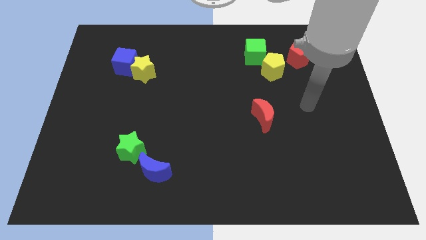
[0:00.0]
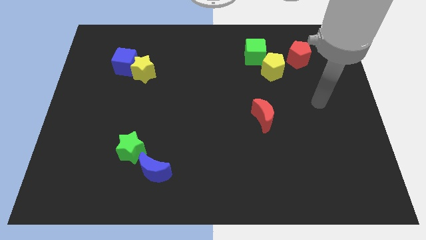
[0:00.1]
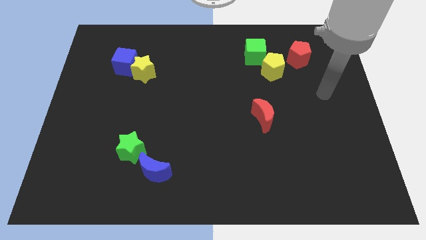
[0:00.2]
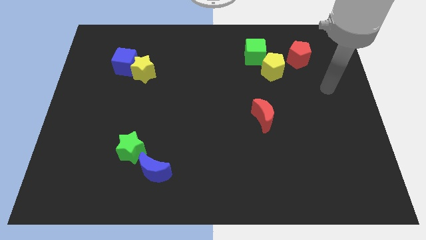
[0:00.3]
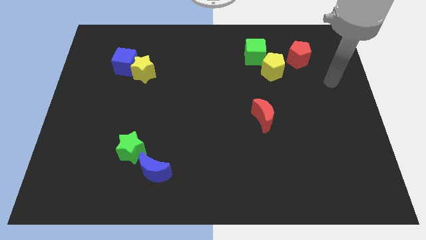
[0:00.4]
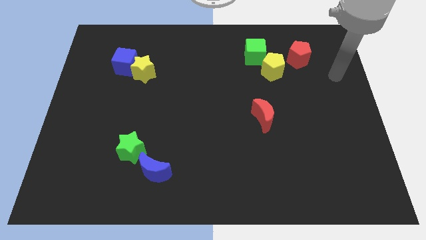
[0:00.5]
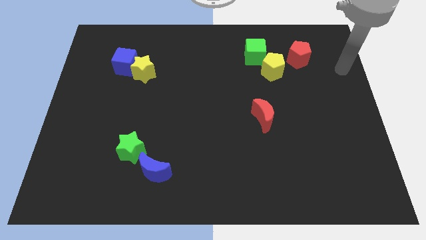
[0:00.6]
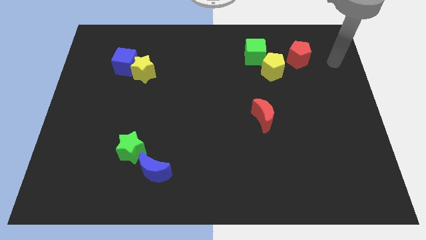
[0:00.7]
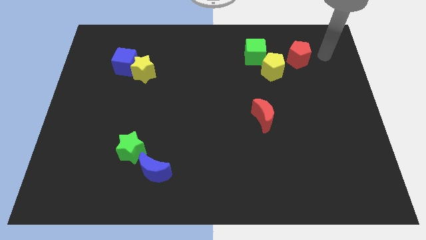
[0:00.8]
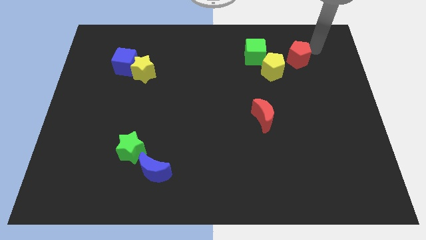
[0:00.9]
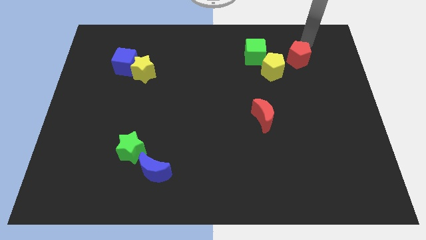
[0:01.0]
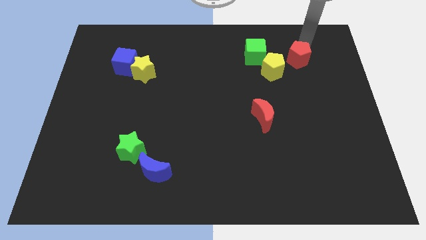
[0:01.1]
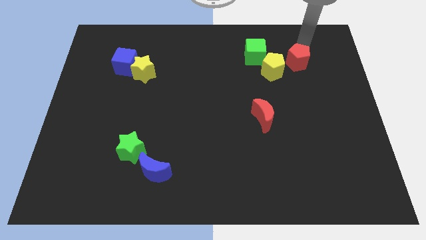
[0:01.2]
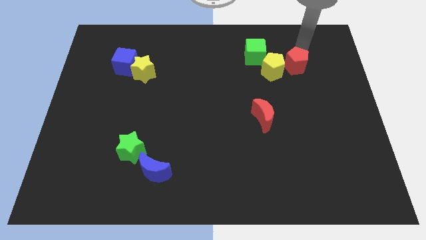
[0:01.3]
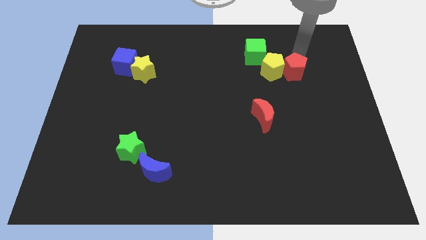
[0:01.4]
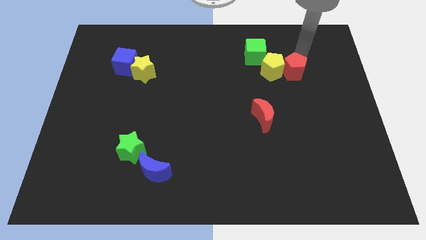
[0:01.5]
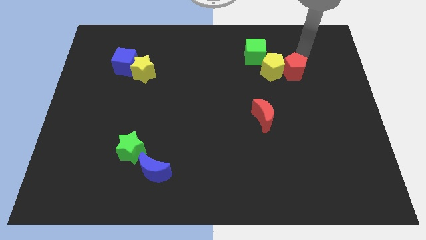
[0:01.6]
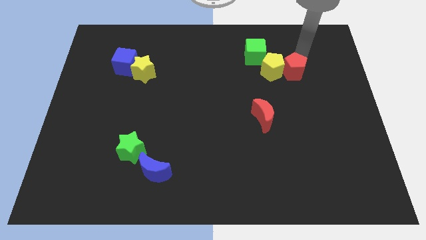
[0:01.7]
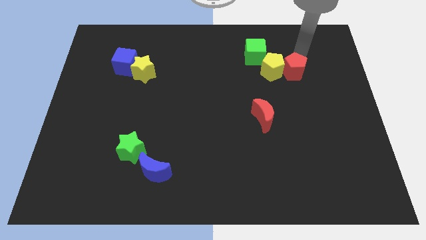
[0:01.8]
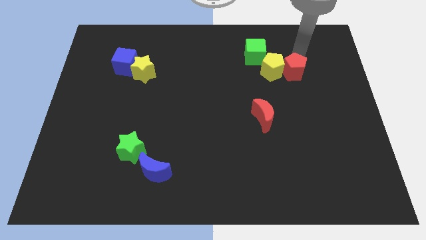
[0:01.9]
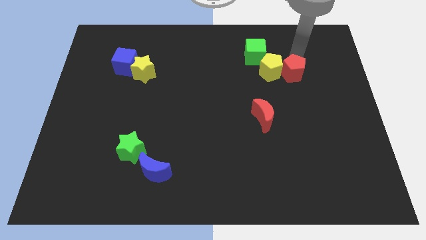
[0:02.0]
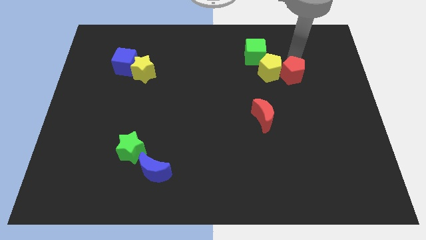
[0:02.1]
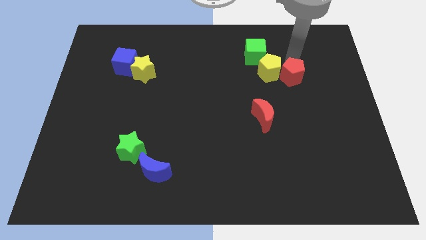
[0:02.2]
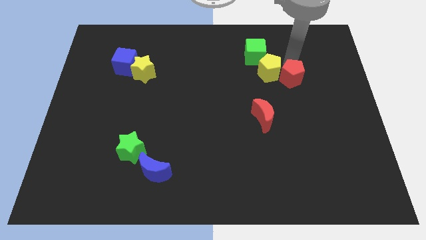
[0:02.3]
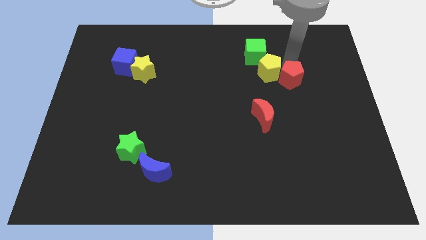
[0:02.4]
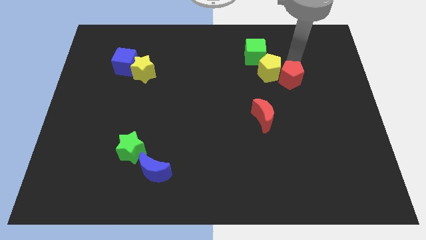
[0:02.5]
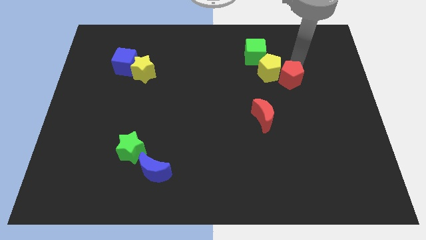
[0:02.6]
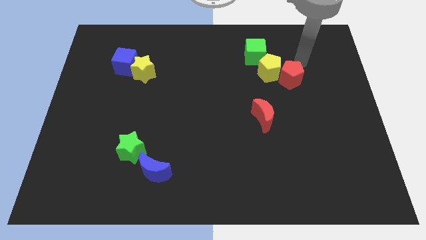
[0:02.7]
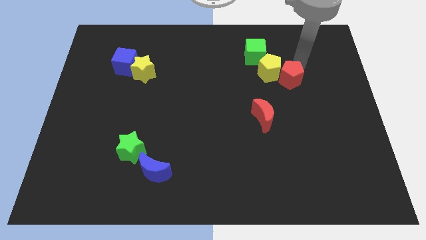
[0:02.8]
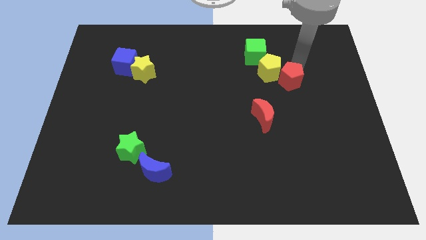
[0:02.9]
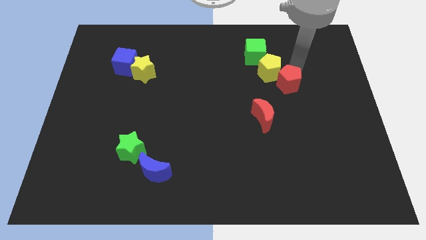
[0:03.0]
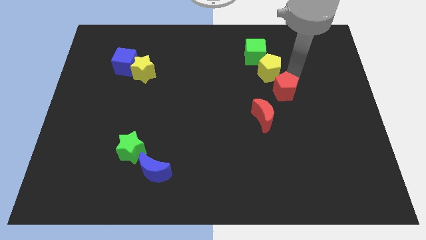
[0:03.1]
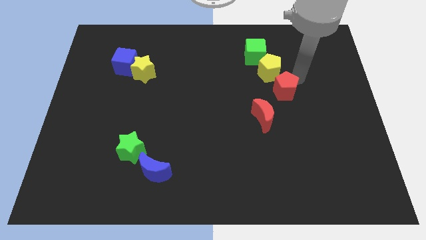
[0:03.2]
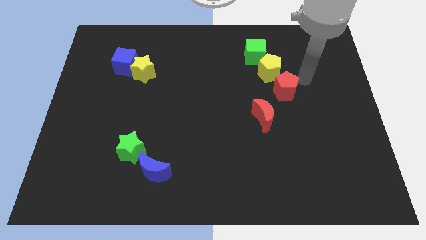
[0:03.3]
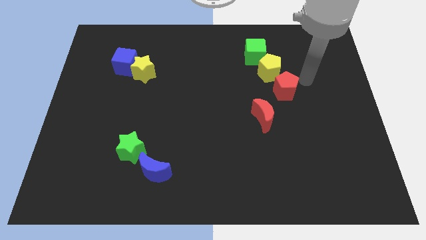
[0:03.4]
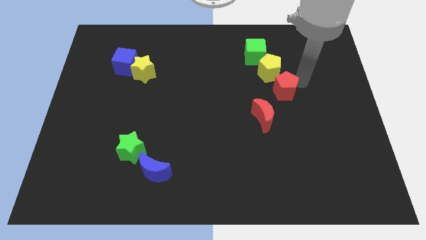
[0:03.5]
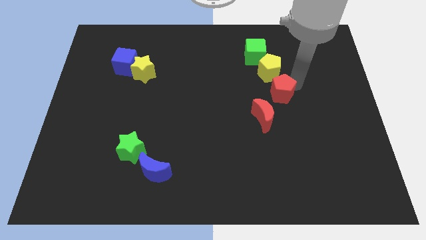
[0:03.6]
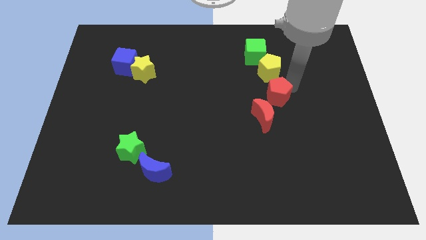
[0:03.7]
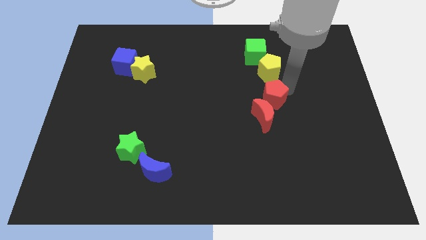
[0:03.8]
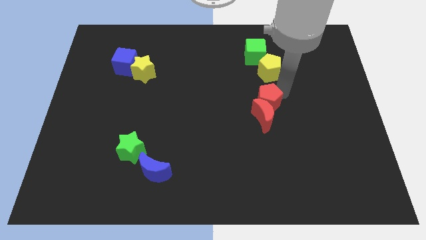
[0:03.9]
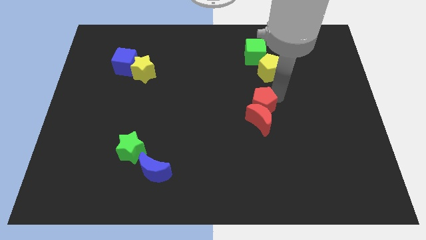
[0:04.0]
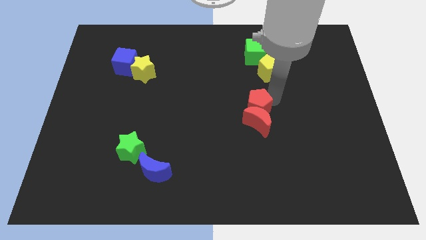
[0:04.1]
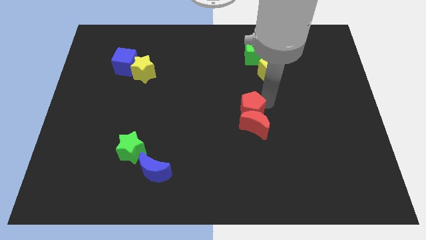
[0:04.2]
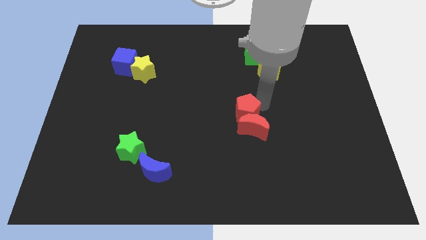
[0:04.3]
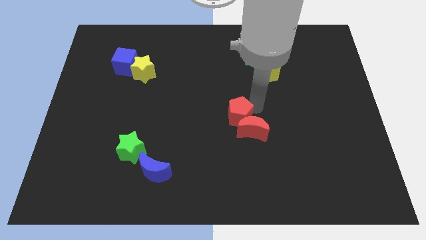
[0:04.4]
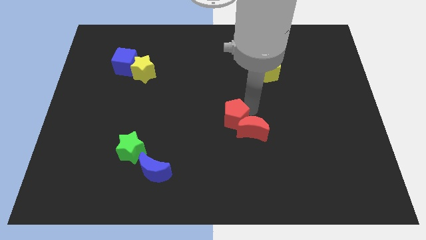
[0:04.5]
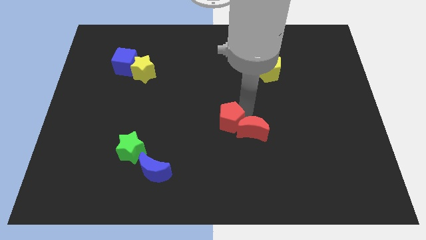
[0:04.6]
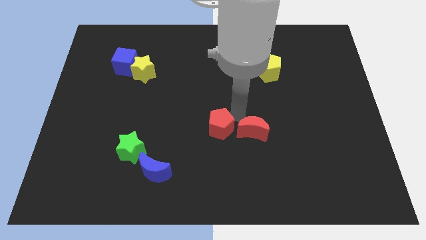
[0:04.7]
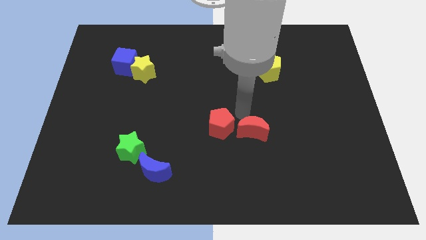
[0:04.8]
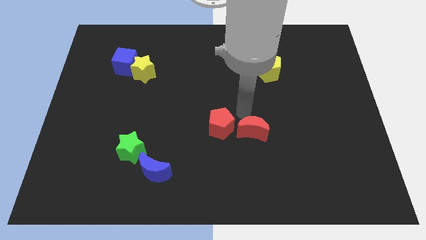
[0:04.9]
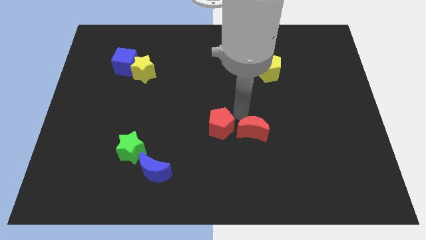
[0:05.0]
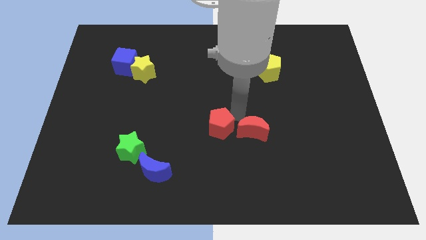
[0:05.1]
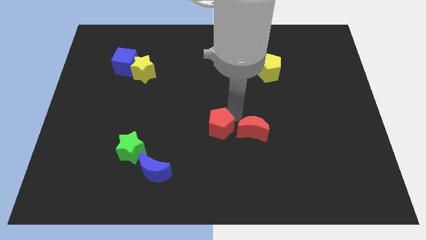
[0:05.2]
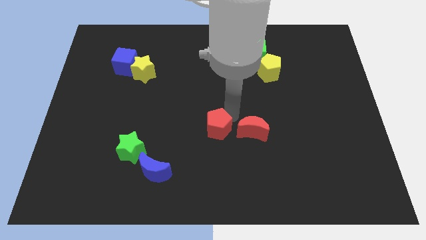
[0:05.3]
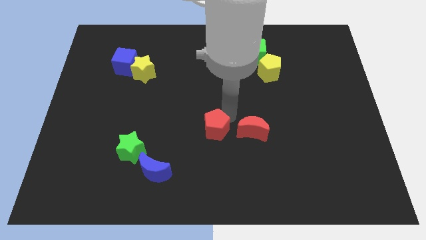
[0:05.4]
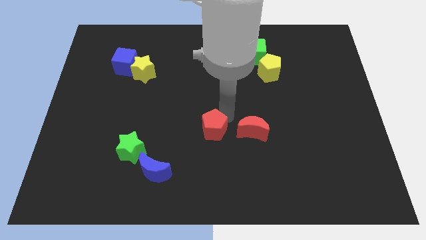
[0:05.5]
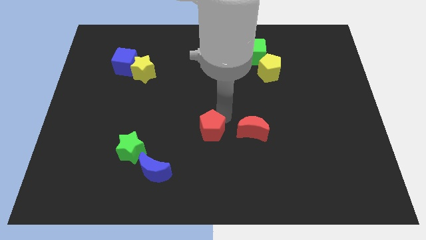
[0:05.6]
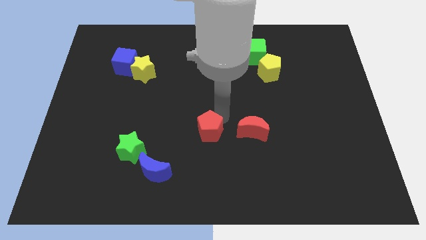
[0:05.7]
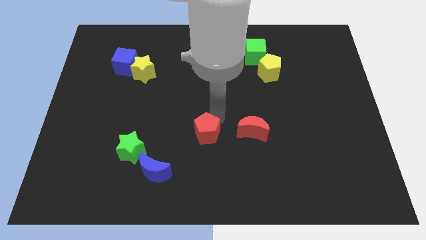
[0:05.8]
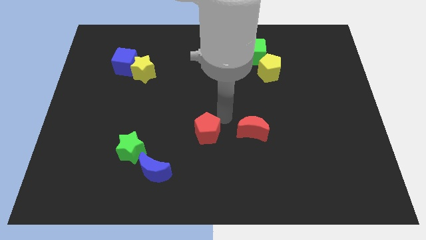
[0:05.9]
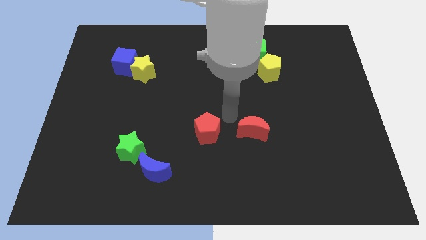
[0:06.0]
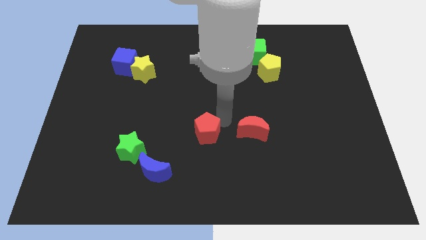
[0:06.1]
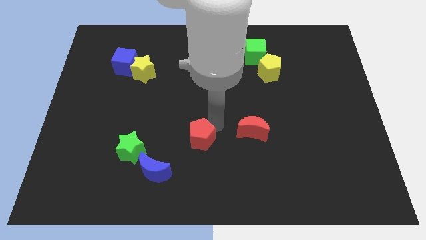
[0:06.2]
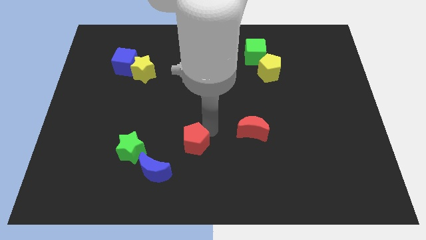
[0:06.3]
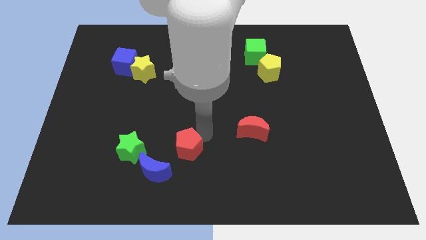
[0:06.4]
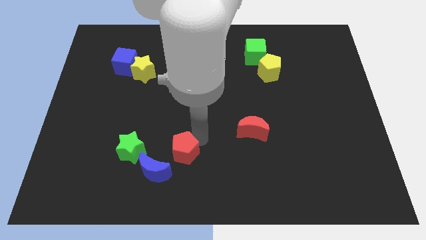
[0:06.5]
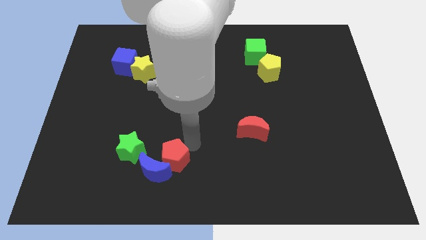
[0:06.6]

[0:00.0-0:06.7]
put the red pentagon towards the blue moon
